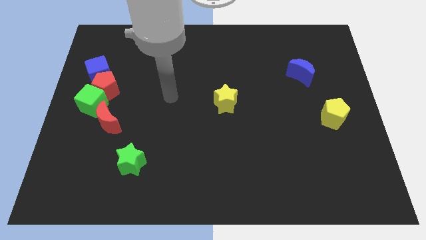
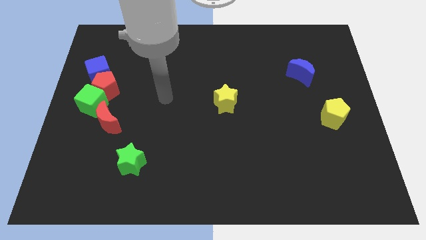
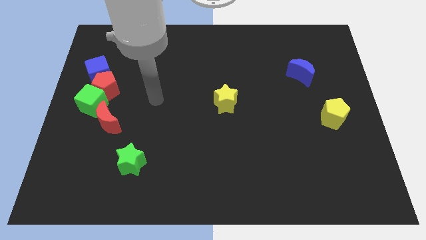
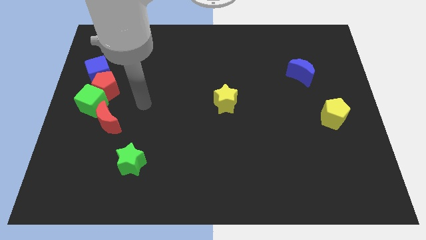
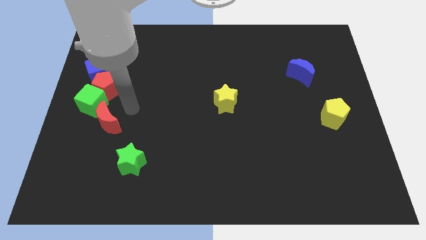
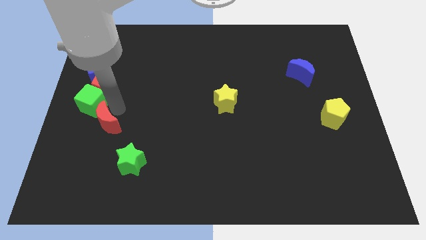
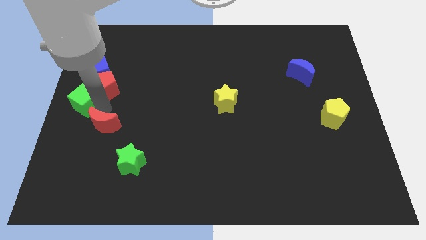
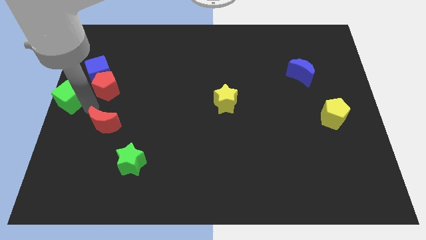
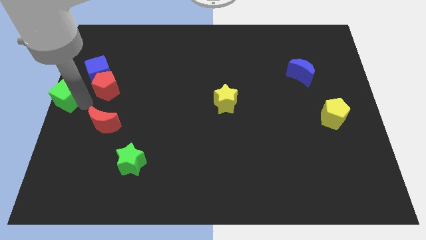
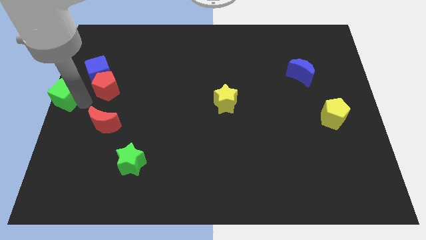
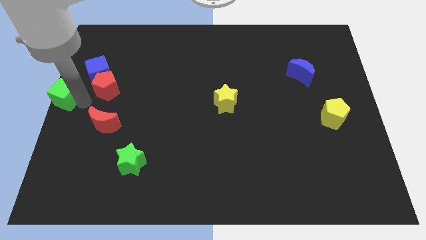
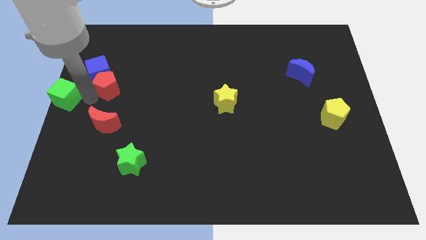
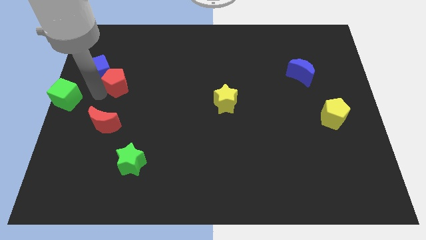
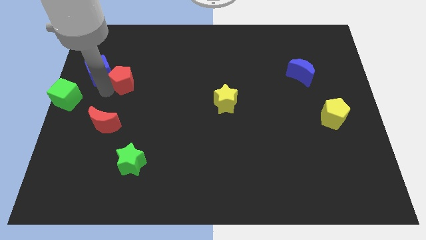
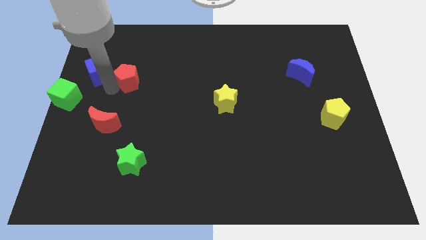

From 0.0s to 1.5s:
separate the red pentagon from the group of blocks

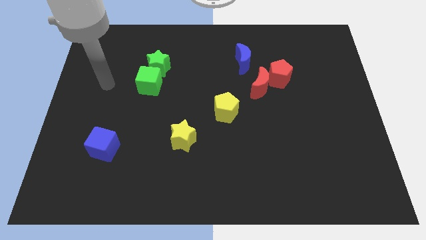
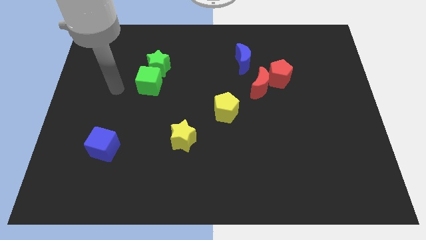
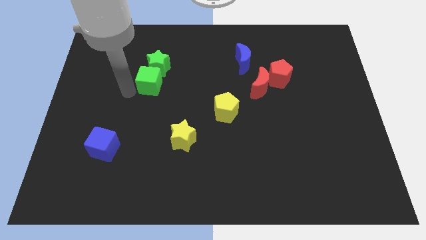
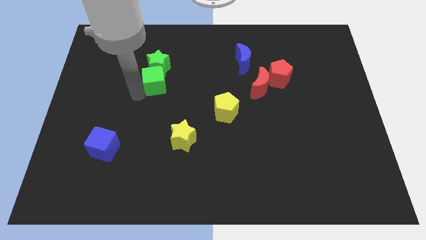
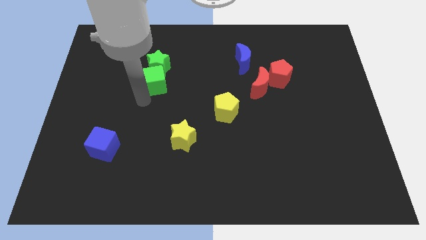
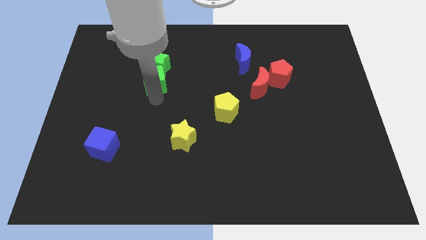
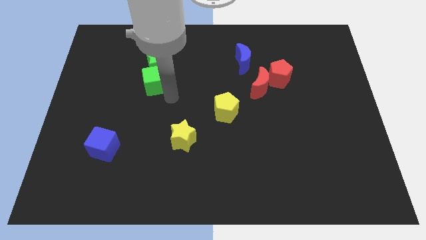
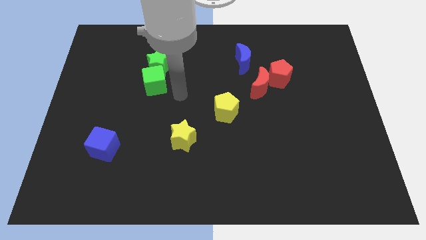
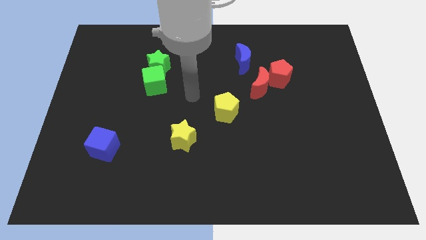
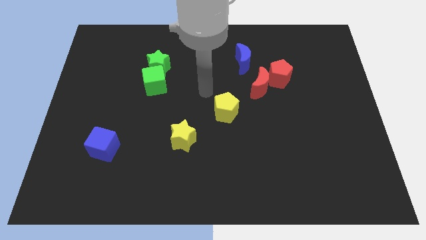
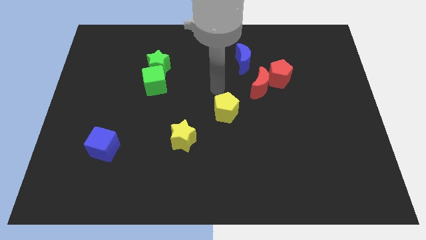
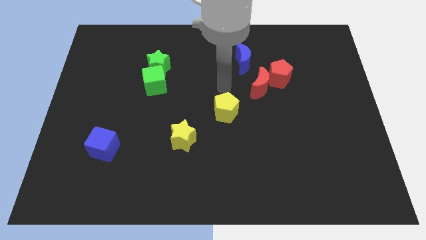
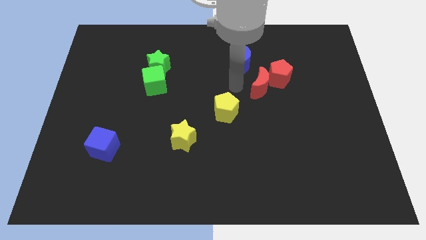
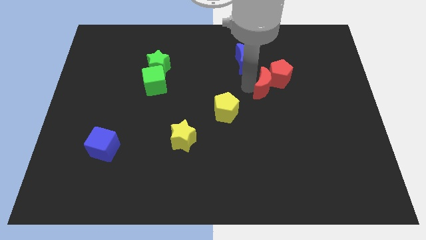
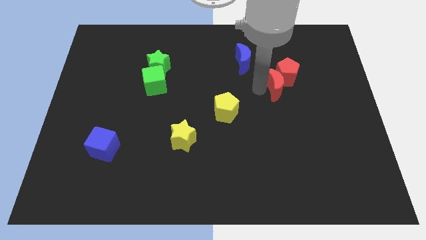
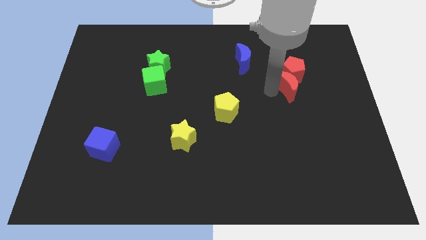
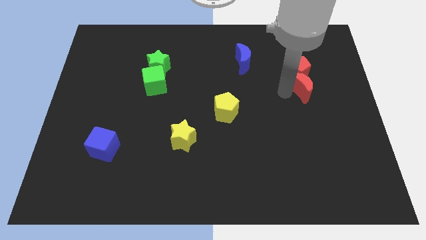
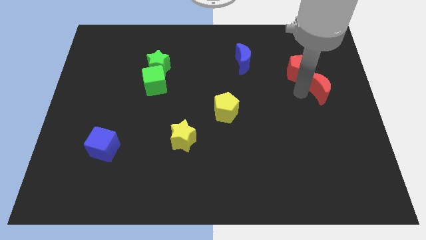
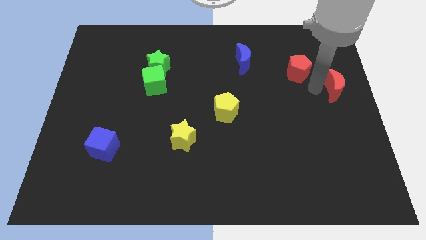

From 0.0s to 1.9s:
separate the red pentagon from the red moon

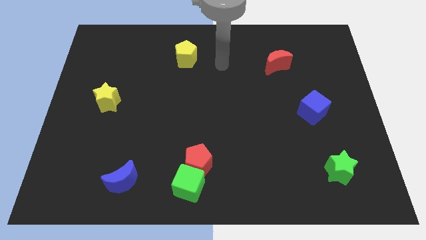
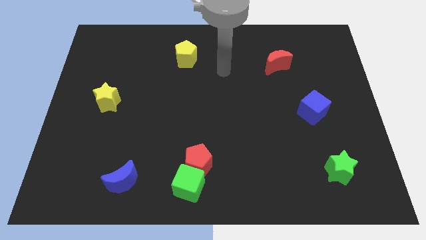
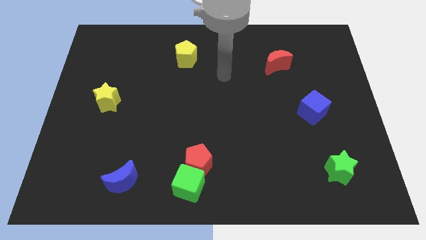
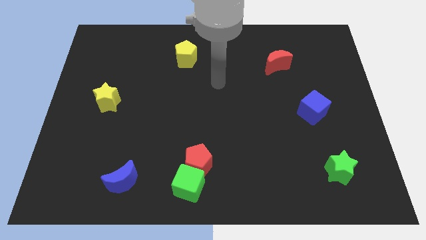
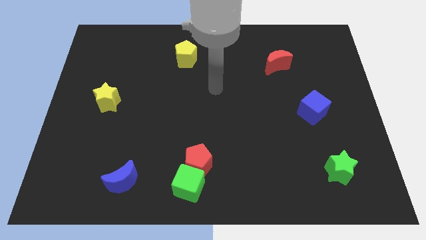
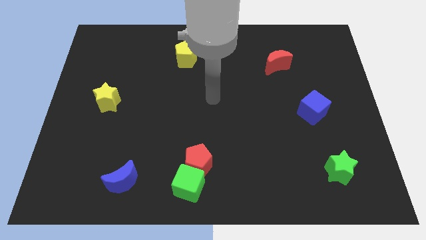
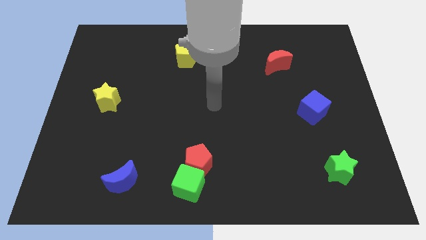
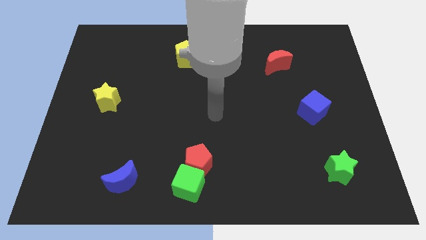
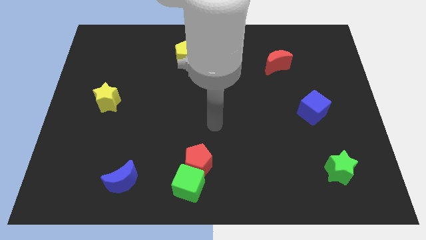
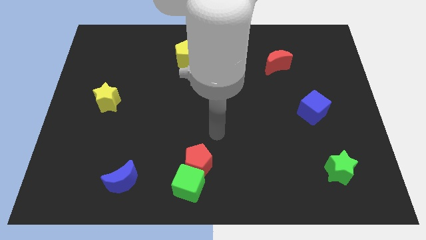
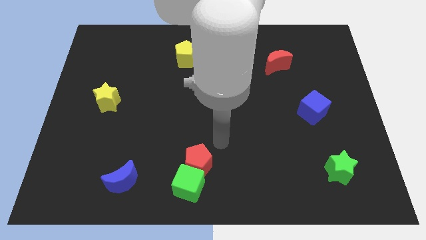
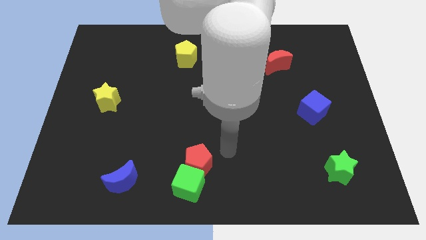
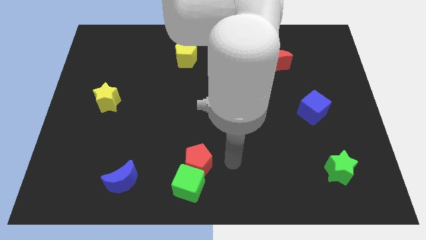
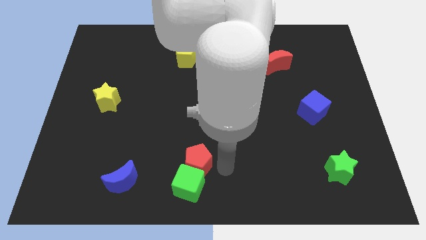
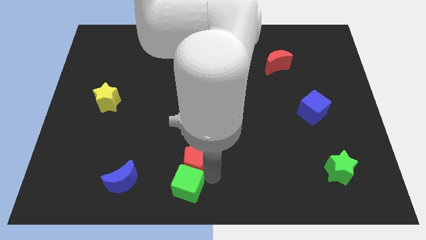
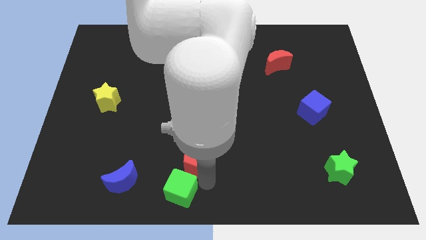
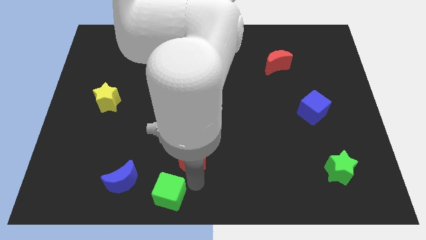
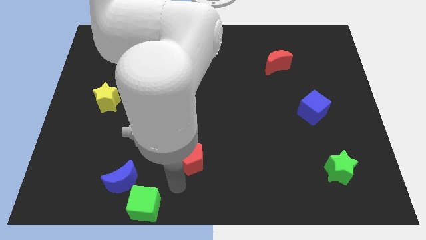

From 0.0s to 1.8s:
pull the red pentagon apart from the green cube

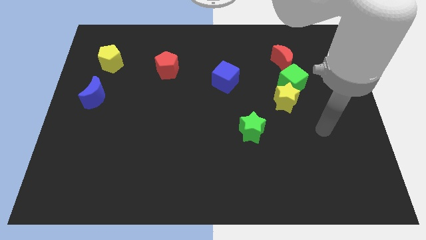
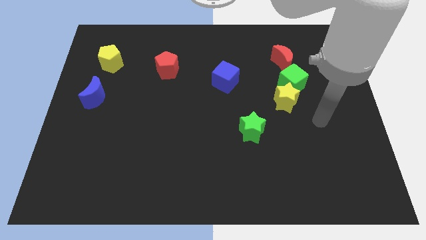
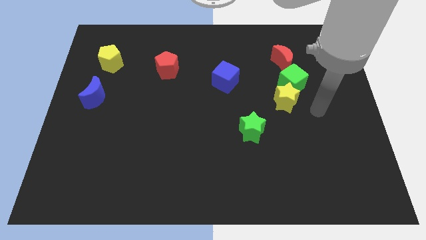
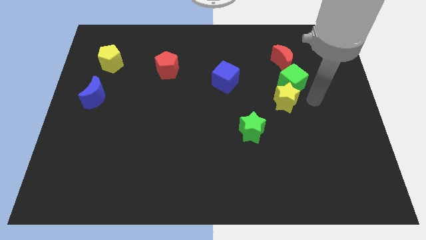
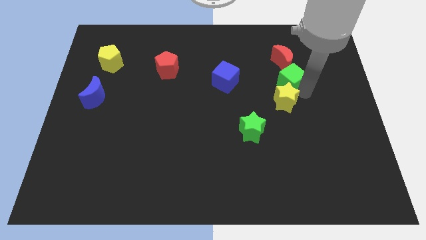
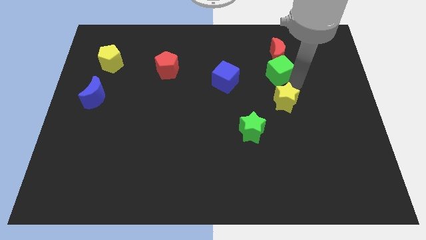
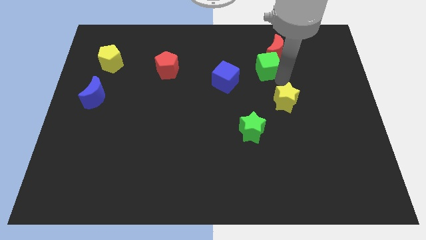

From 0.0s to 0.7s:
separate the yellow star from the green cube

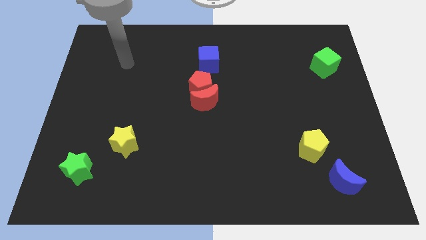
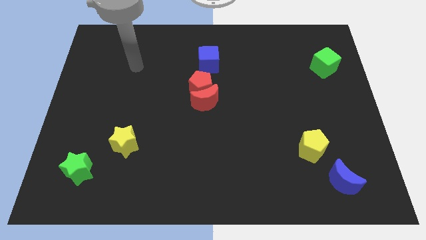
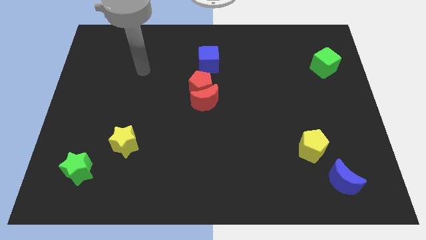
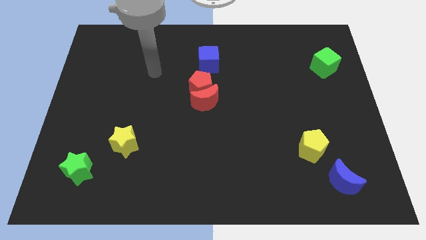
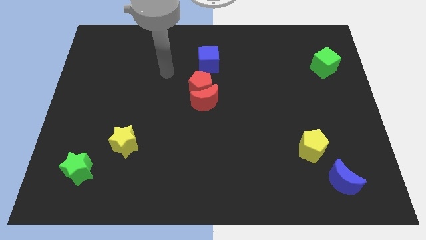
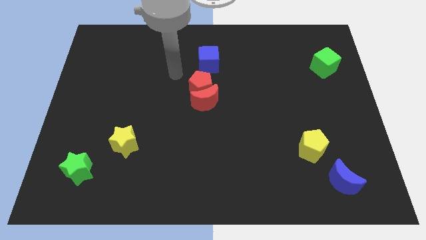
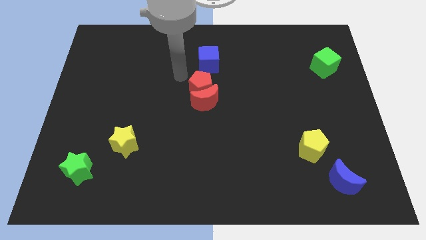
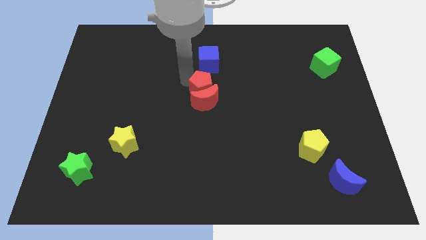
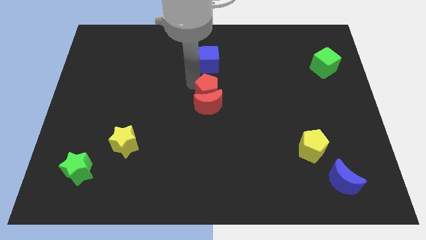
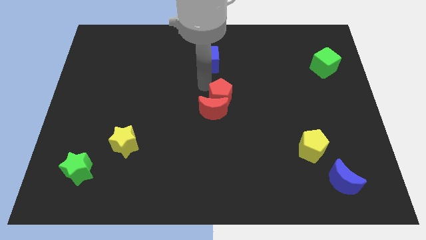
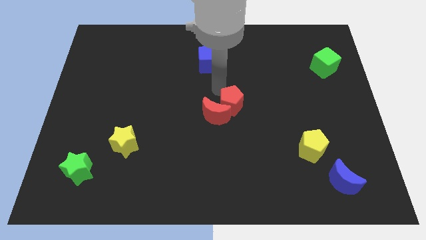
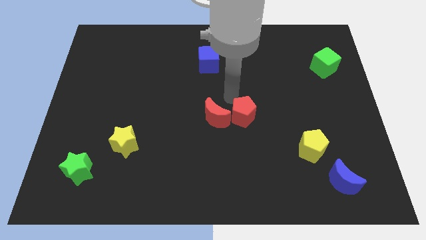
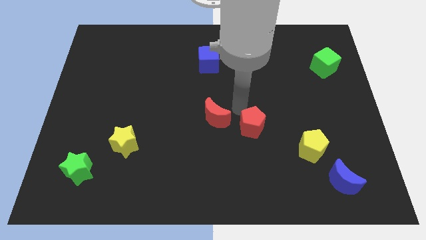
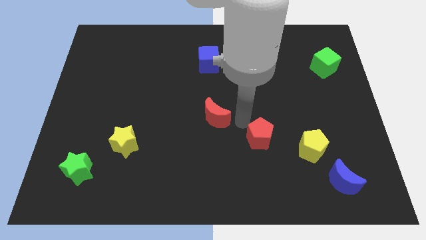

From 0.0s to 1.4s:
pull the red moon apart from the red pentagon

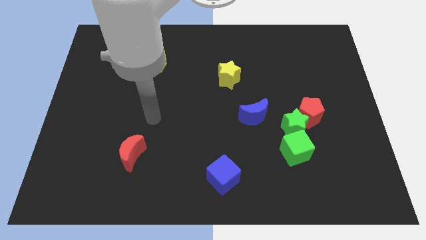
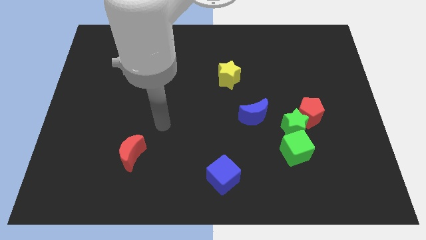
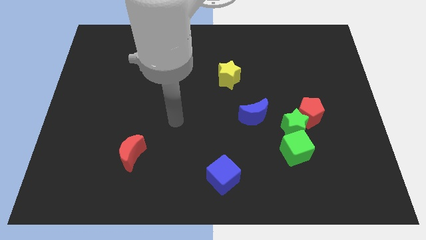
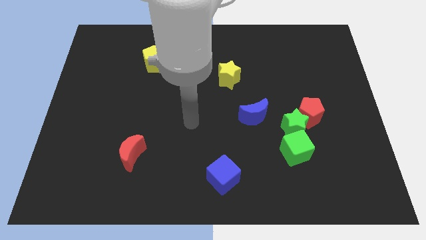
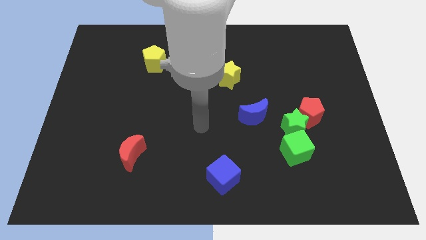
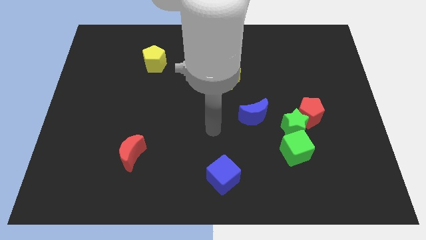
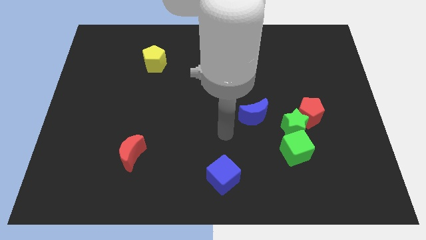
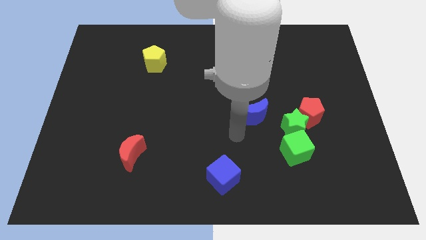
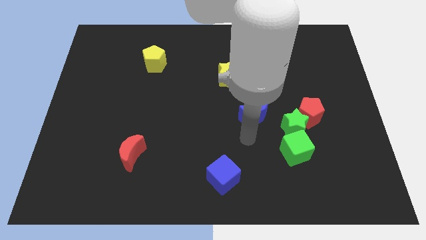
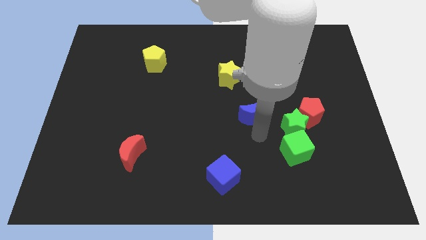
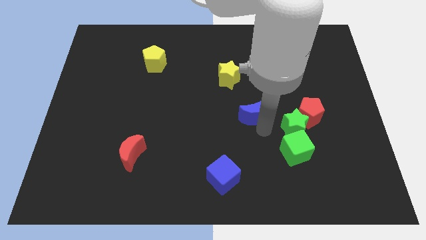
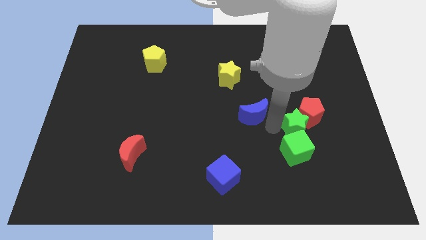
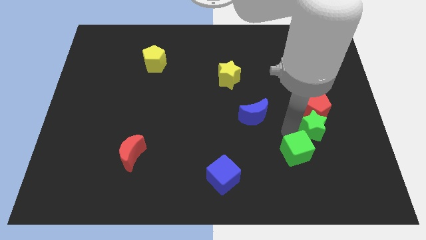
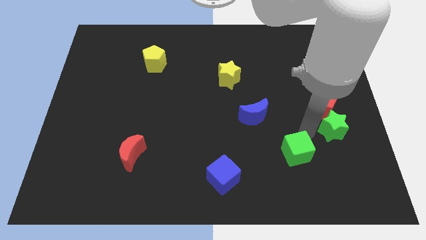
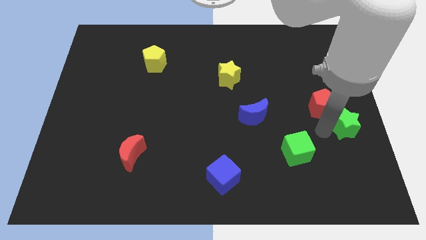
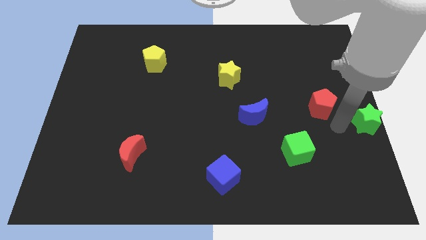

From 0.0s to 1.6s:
move the red pentagon away from the green star

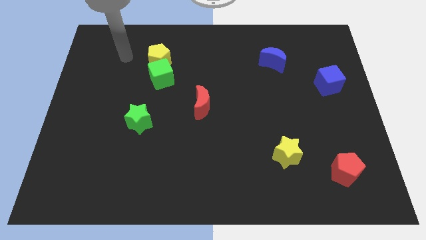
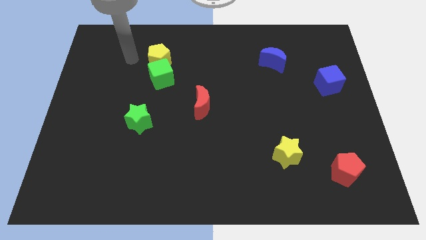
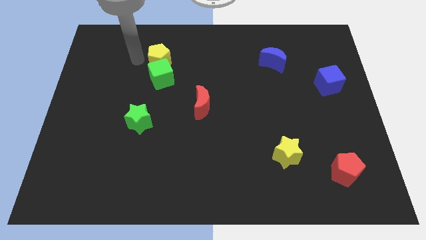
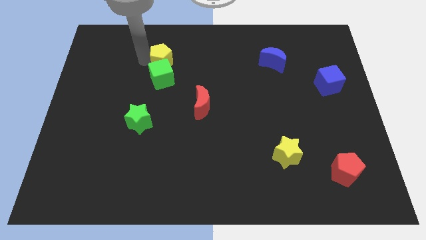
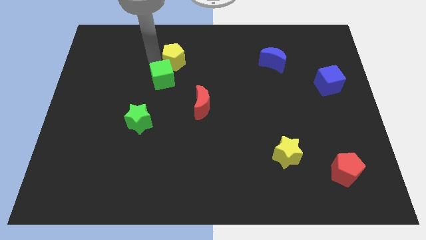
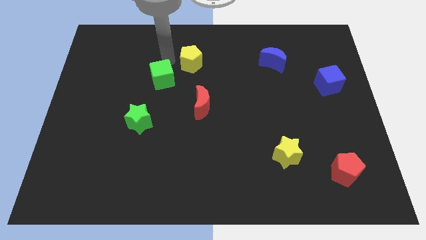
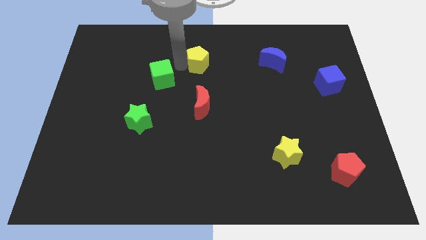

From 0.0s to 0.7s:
separate the green cube from the yellow pentagon
